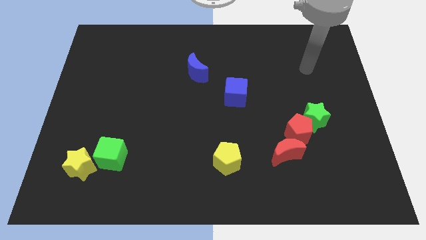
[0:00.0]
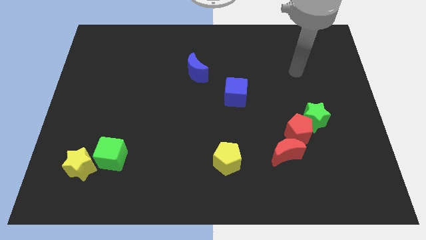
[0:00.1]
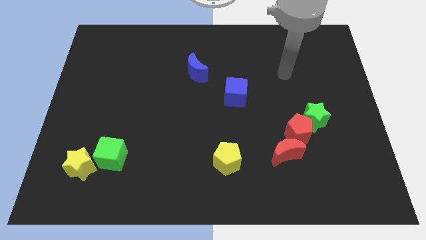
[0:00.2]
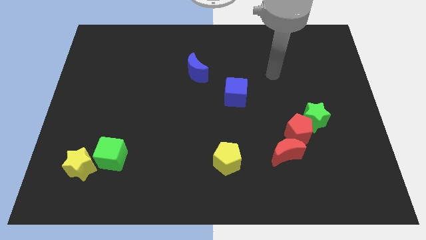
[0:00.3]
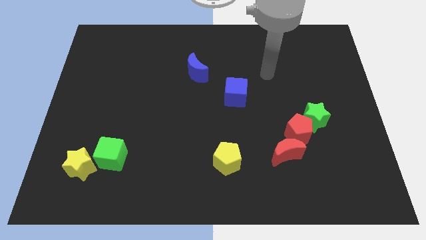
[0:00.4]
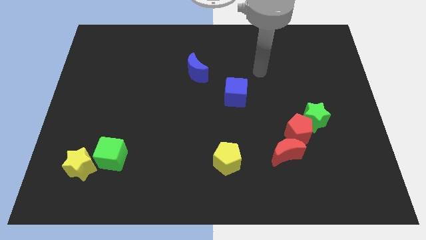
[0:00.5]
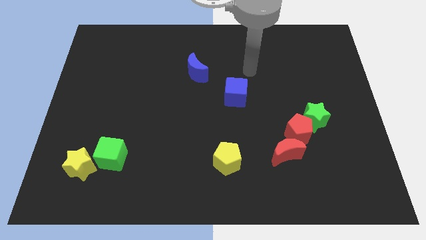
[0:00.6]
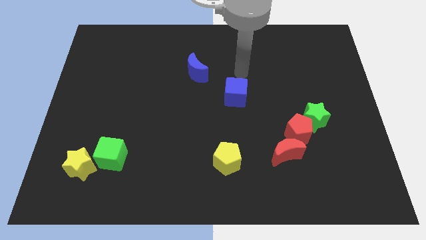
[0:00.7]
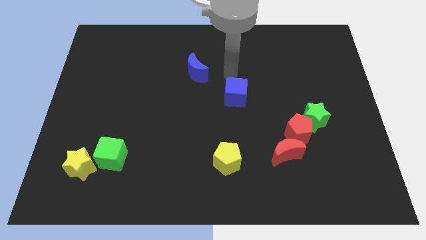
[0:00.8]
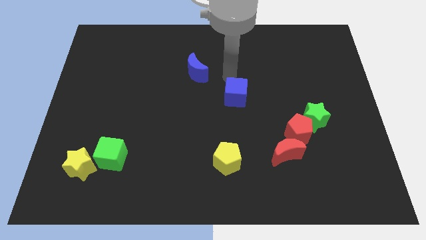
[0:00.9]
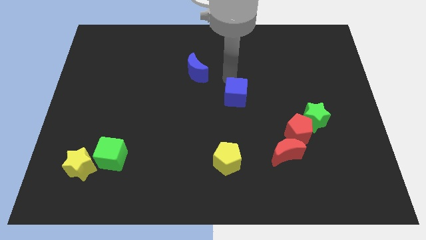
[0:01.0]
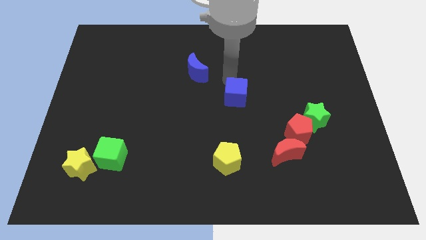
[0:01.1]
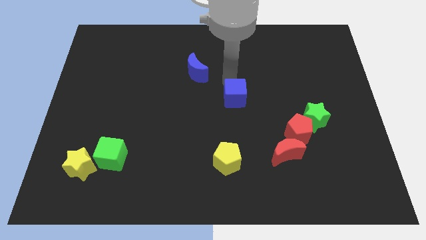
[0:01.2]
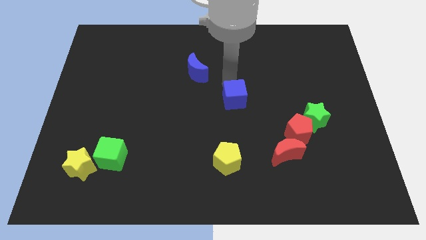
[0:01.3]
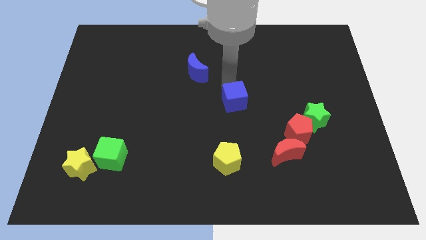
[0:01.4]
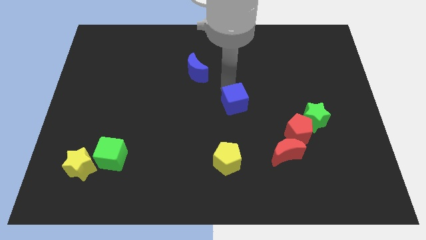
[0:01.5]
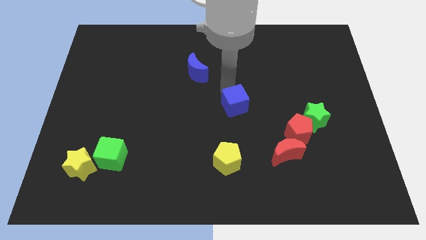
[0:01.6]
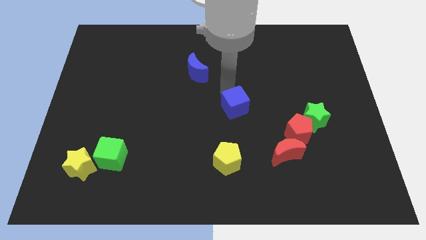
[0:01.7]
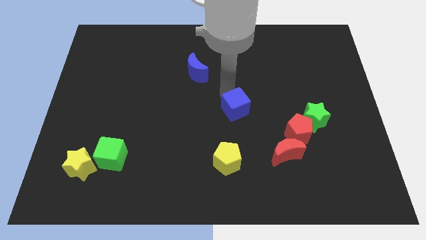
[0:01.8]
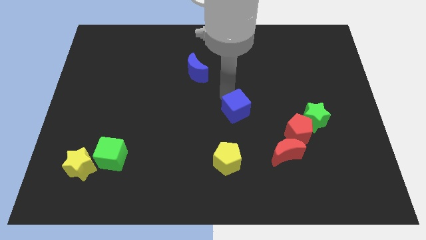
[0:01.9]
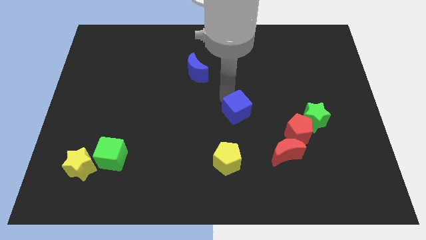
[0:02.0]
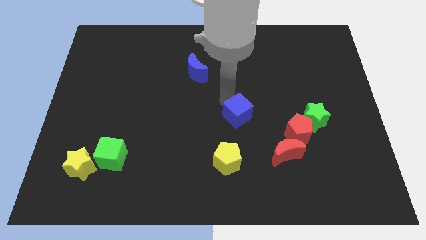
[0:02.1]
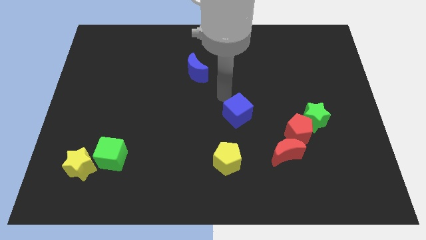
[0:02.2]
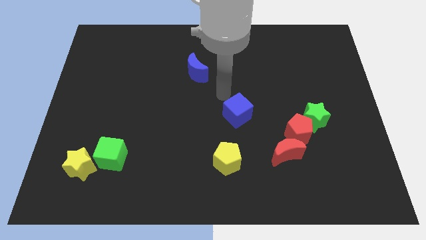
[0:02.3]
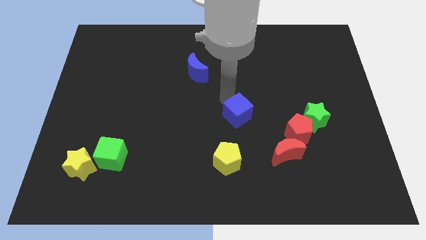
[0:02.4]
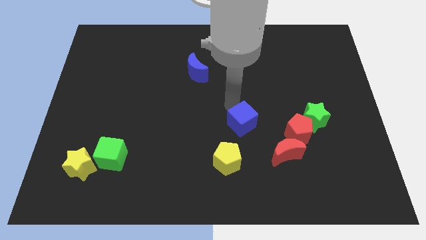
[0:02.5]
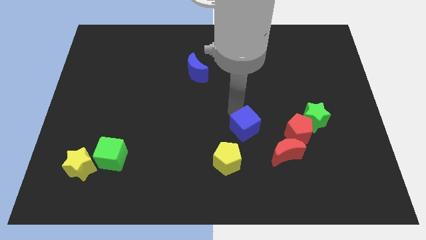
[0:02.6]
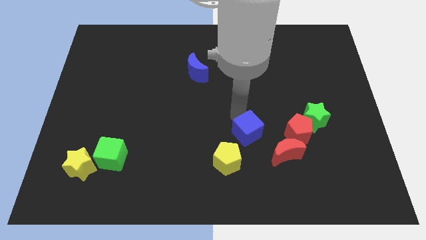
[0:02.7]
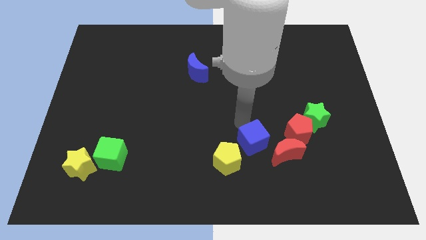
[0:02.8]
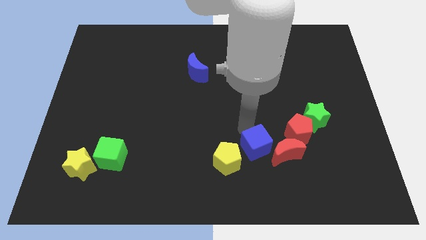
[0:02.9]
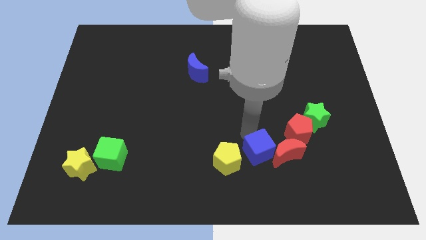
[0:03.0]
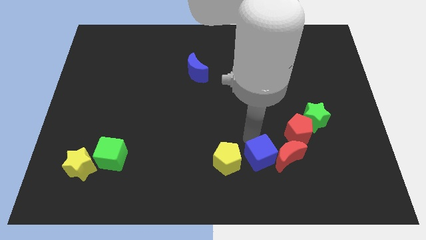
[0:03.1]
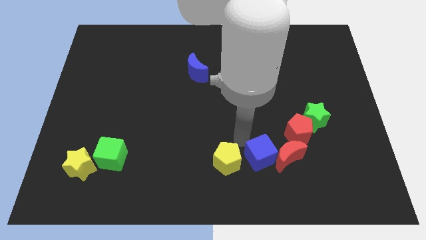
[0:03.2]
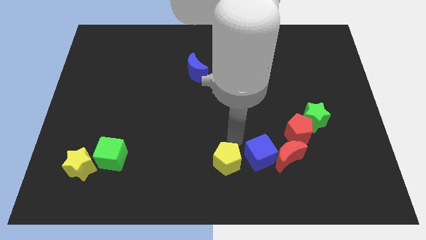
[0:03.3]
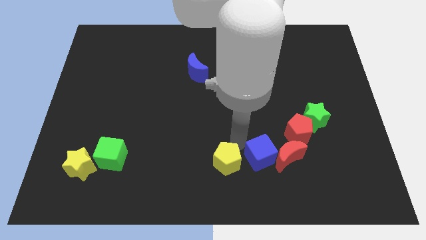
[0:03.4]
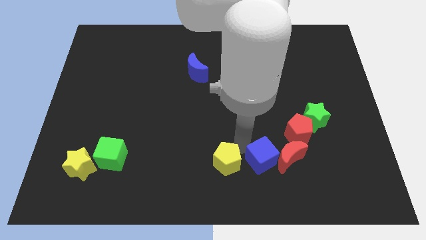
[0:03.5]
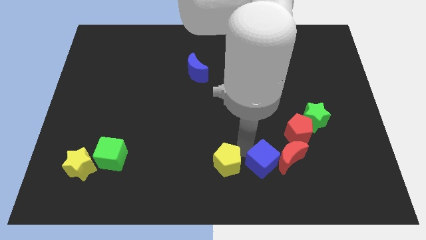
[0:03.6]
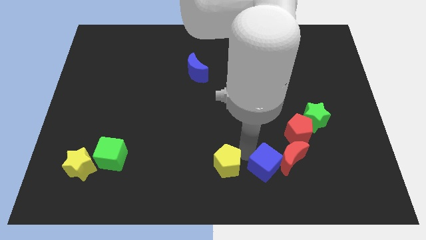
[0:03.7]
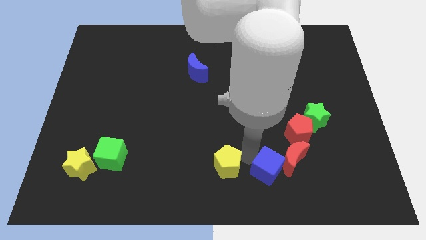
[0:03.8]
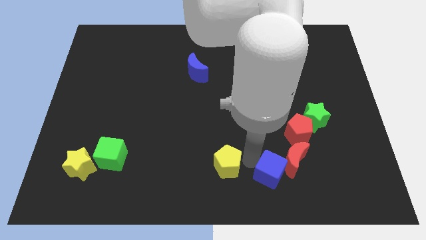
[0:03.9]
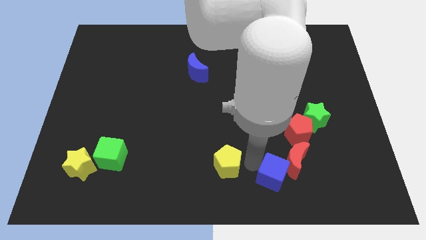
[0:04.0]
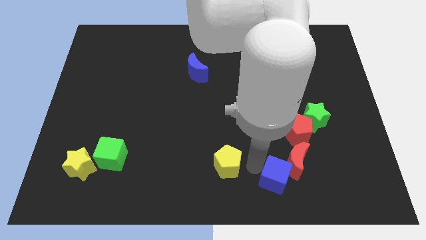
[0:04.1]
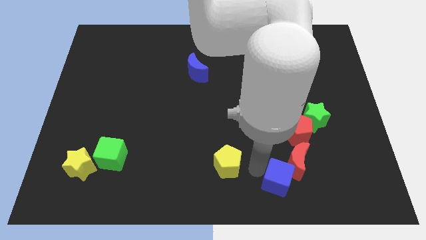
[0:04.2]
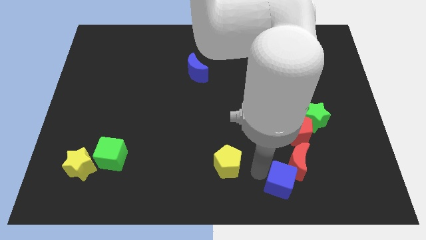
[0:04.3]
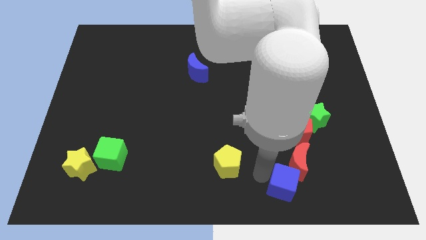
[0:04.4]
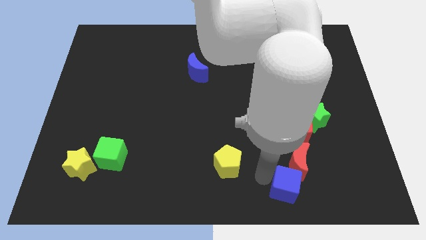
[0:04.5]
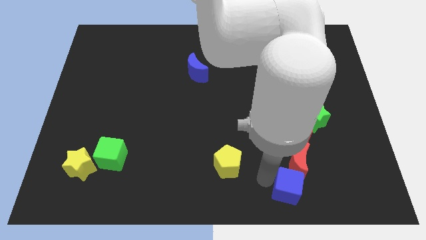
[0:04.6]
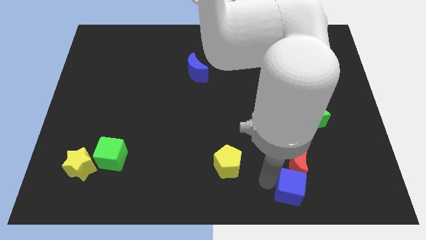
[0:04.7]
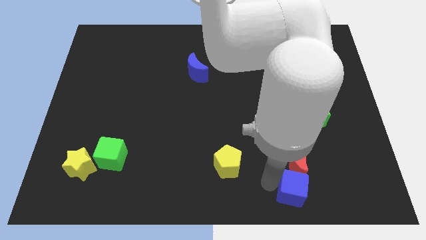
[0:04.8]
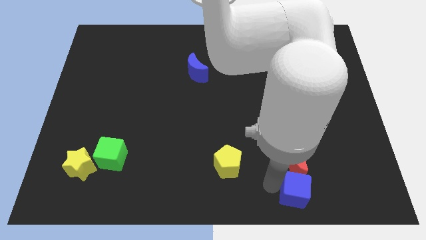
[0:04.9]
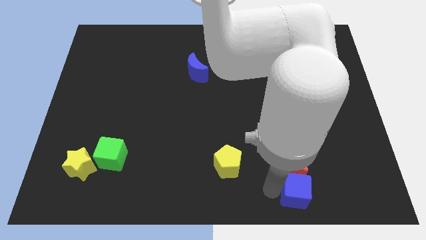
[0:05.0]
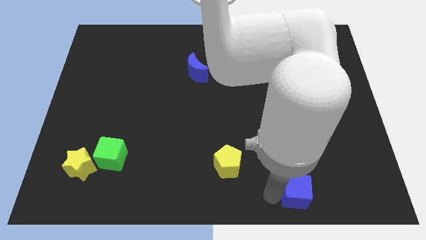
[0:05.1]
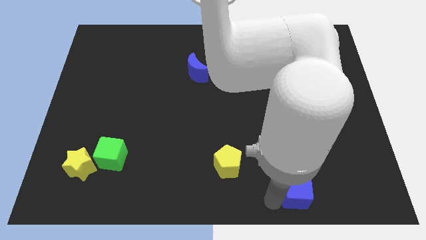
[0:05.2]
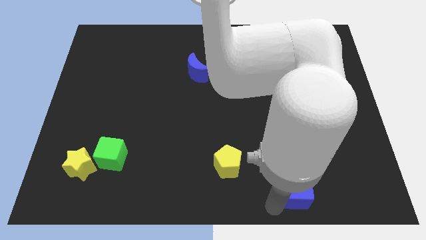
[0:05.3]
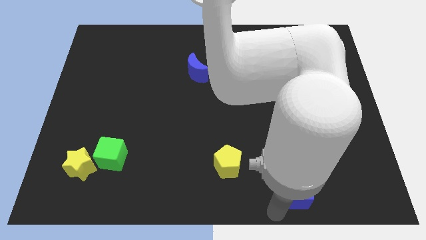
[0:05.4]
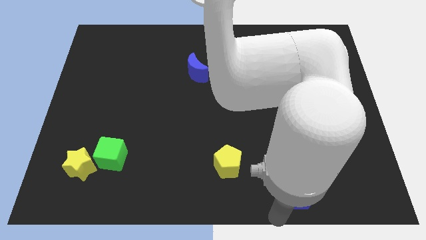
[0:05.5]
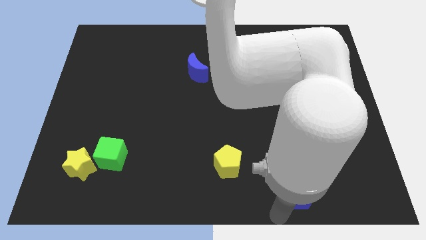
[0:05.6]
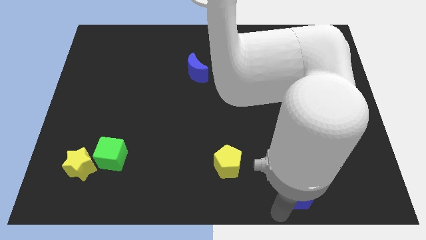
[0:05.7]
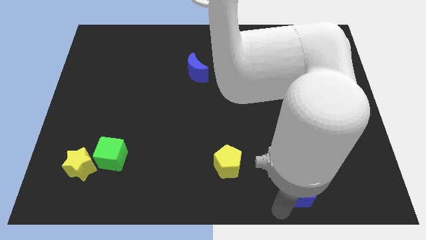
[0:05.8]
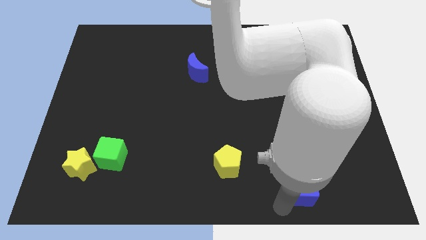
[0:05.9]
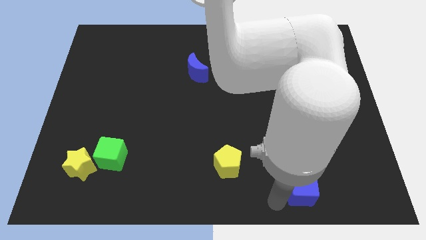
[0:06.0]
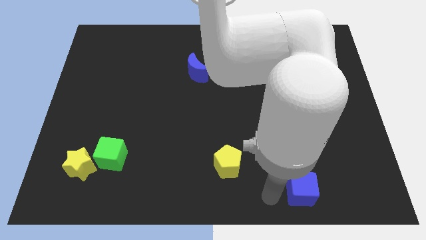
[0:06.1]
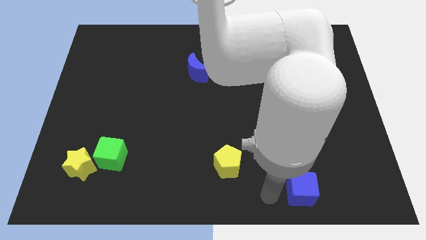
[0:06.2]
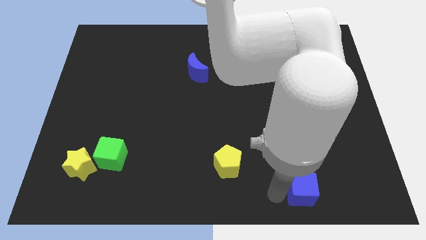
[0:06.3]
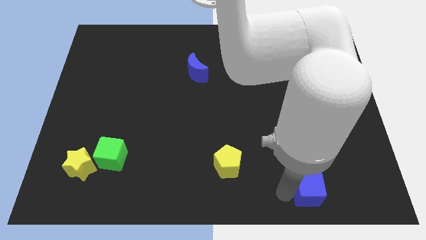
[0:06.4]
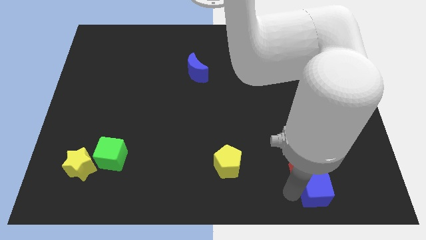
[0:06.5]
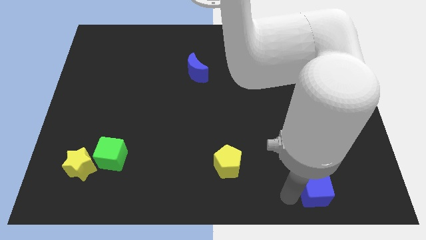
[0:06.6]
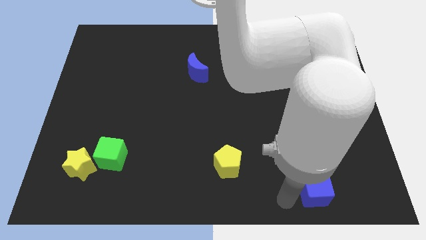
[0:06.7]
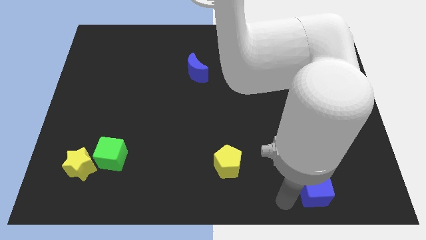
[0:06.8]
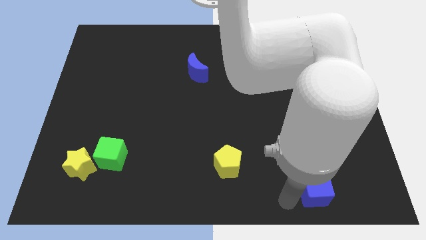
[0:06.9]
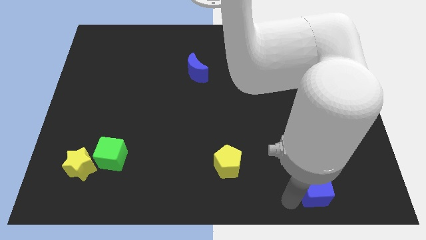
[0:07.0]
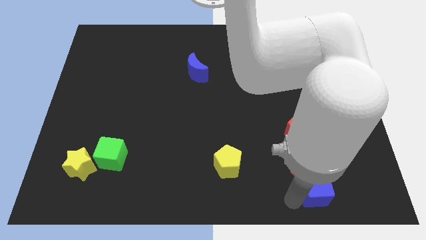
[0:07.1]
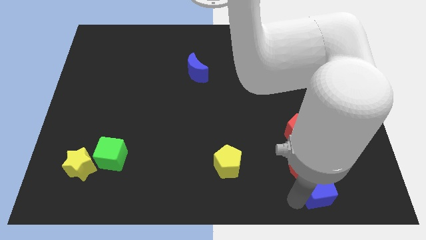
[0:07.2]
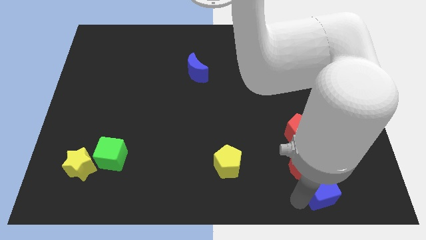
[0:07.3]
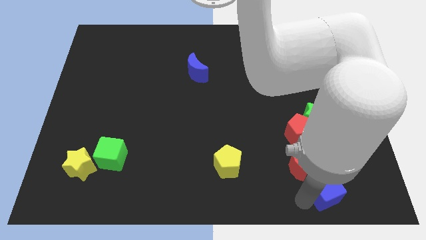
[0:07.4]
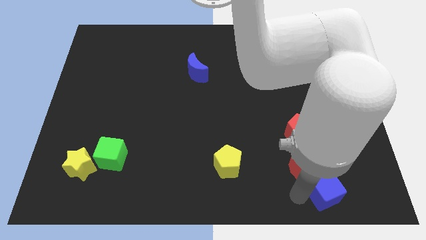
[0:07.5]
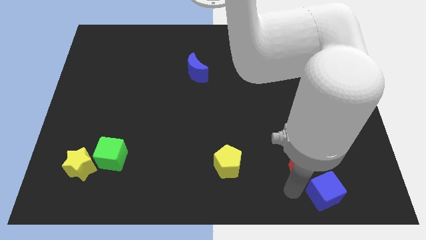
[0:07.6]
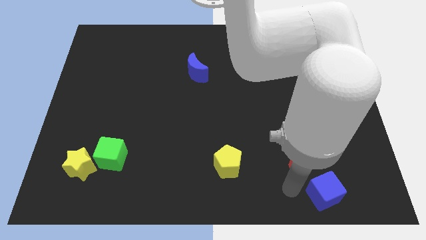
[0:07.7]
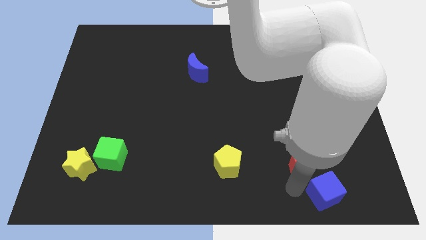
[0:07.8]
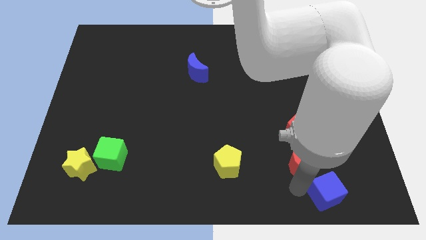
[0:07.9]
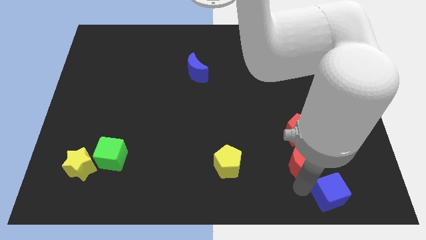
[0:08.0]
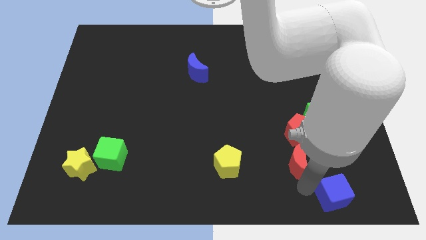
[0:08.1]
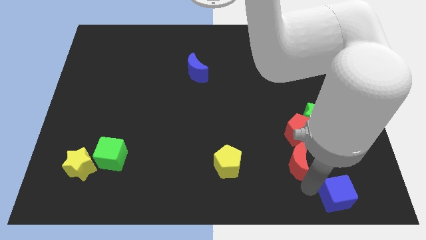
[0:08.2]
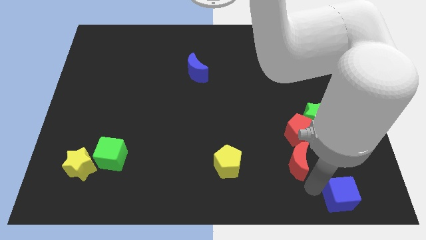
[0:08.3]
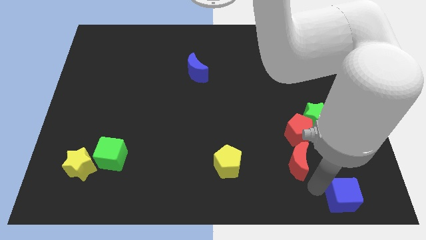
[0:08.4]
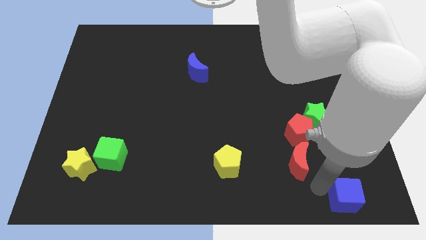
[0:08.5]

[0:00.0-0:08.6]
move the blue cube to the bottom right corner
